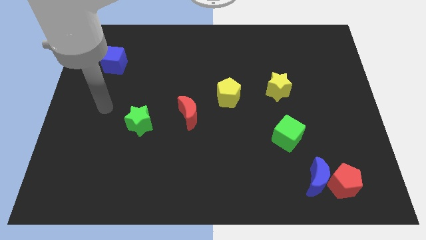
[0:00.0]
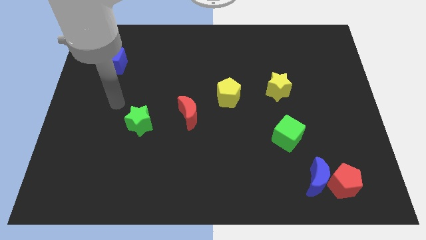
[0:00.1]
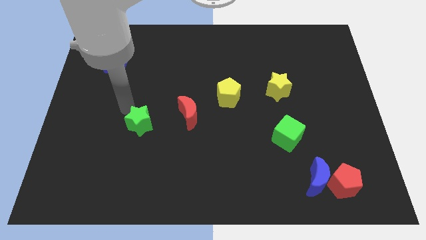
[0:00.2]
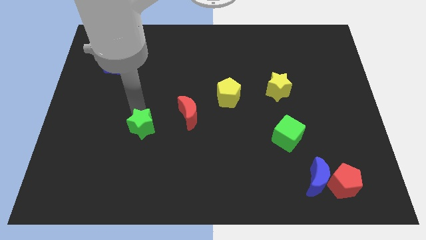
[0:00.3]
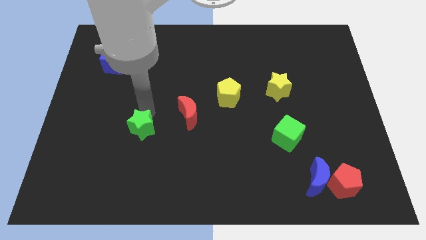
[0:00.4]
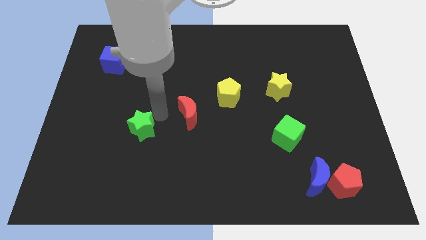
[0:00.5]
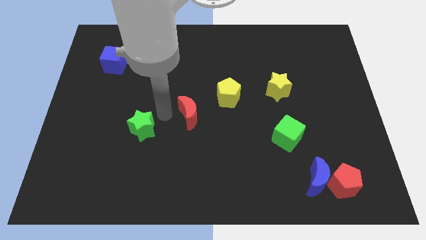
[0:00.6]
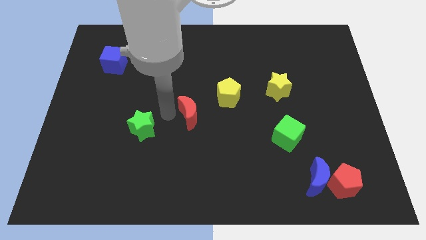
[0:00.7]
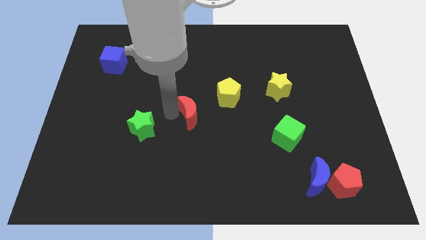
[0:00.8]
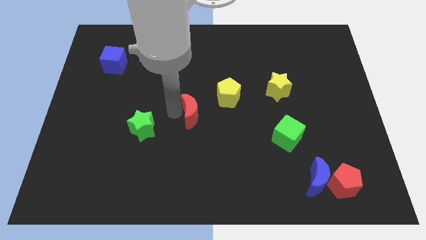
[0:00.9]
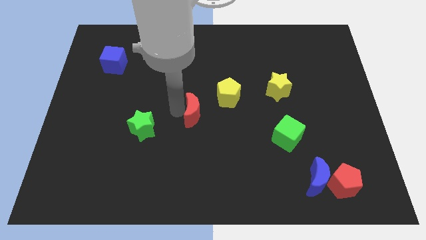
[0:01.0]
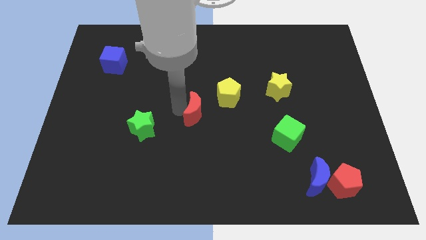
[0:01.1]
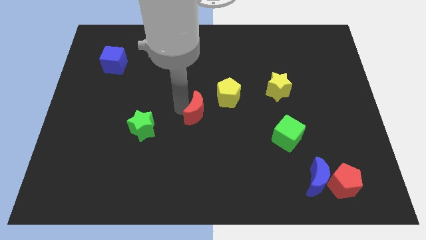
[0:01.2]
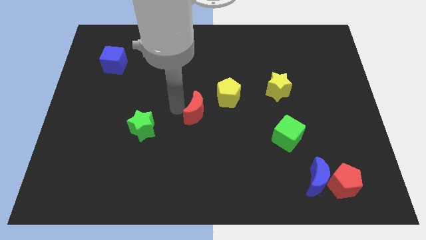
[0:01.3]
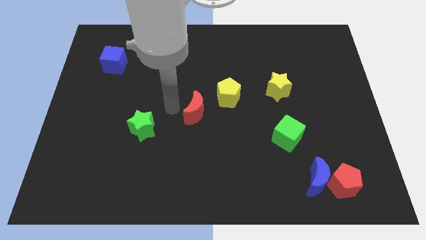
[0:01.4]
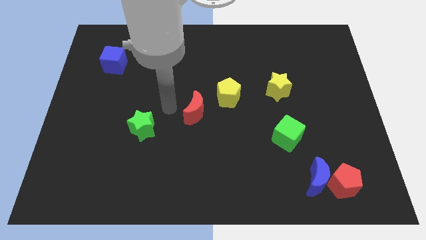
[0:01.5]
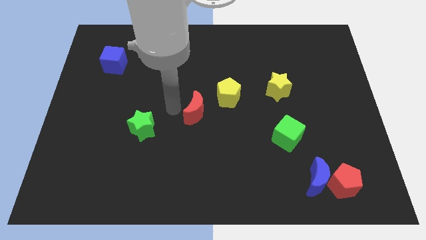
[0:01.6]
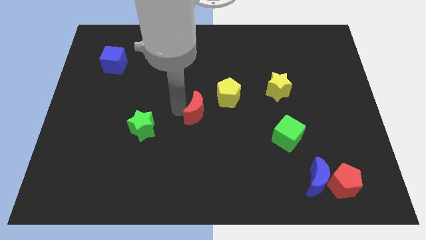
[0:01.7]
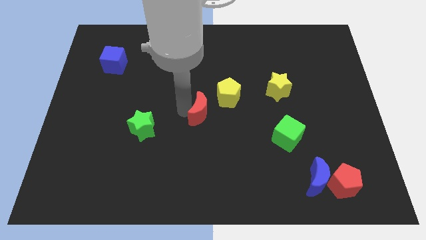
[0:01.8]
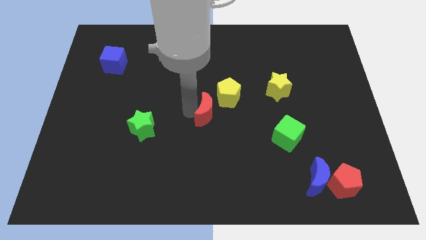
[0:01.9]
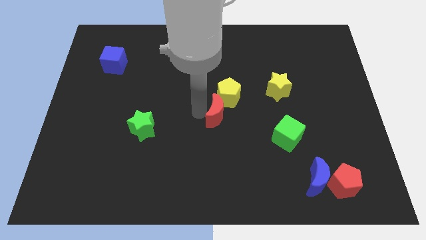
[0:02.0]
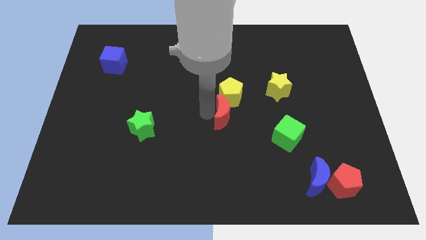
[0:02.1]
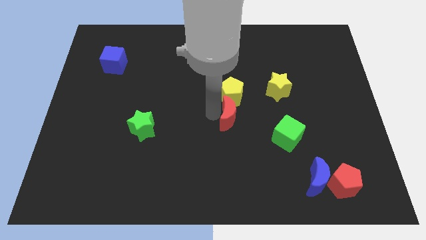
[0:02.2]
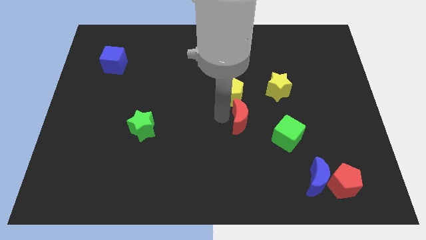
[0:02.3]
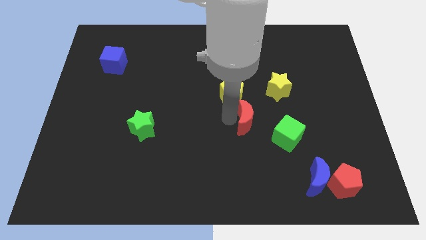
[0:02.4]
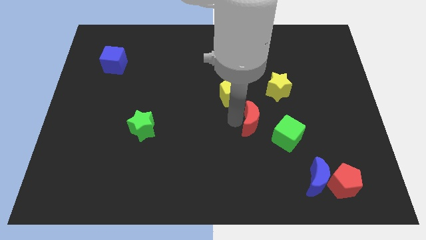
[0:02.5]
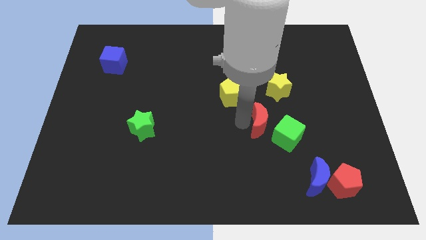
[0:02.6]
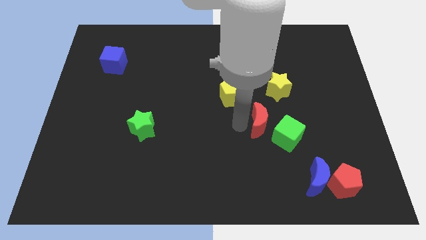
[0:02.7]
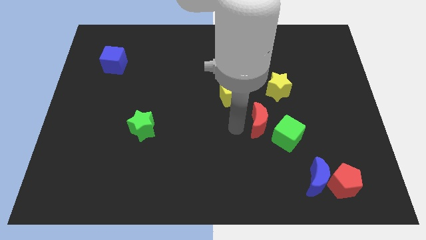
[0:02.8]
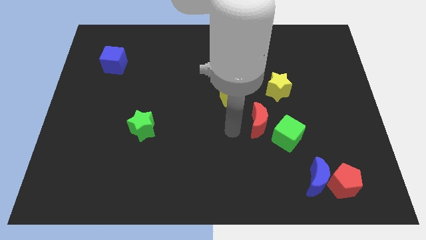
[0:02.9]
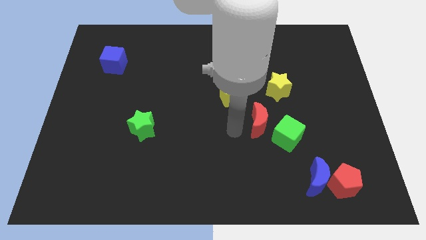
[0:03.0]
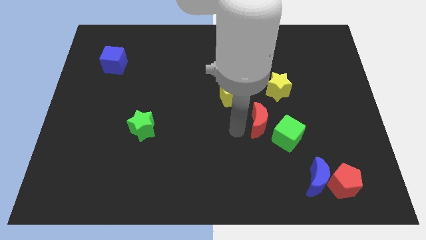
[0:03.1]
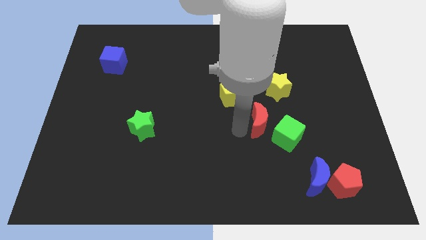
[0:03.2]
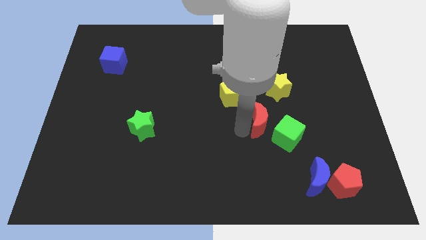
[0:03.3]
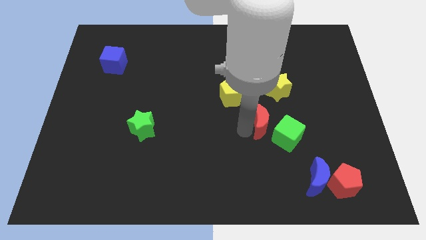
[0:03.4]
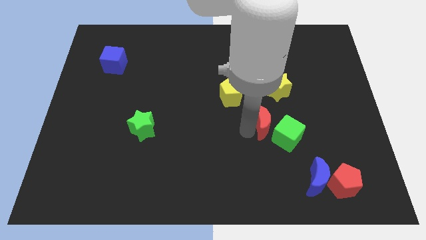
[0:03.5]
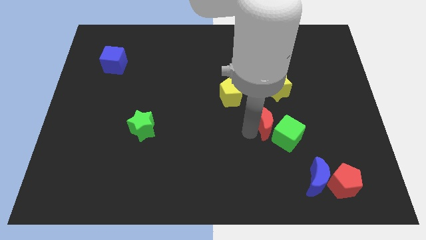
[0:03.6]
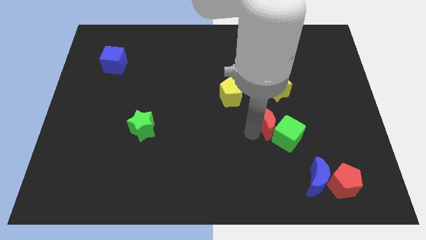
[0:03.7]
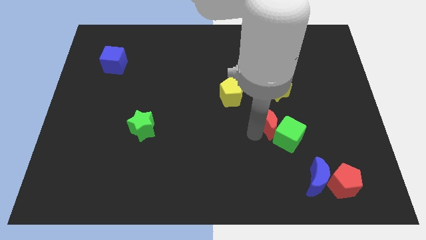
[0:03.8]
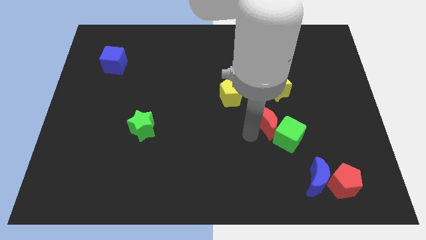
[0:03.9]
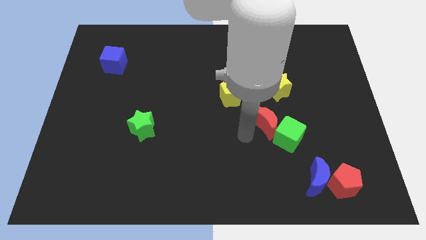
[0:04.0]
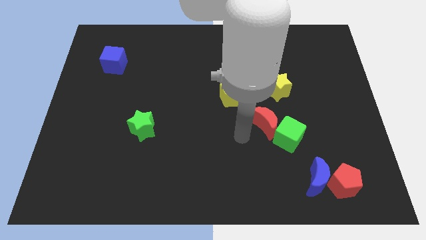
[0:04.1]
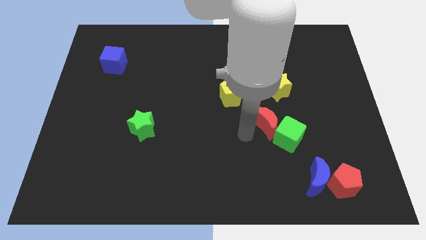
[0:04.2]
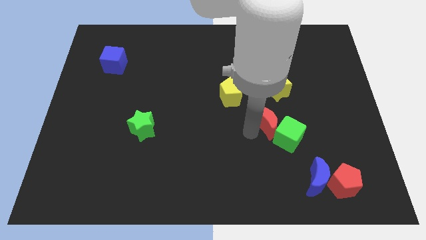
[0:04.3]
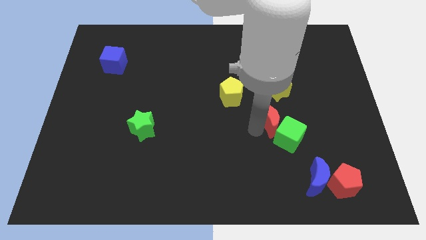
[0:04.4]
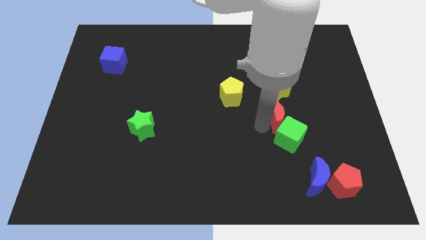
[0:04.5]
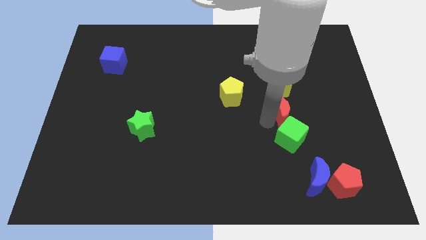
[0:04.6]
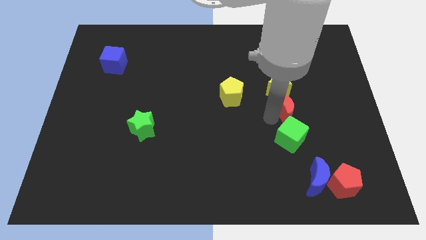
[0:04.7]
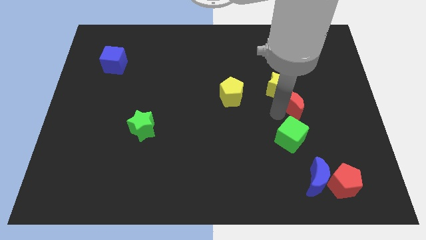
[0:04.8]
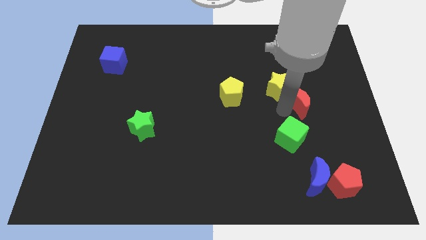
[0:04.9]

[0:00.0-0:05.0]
put the red moon to the right side of the yellow star

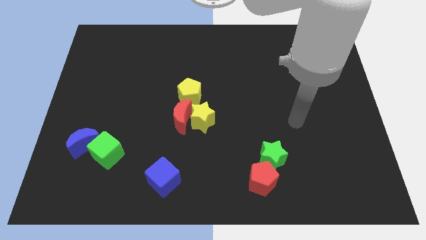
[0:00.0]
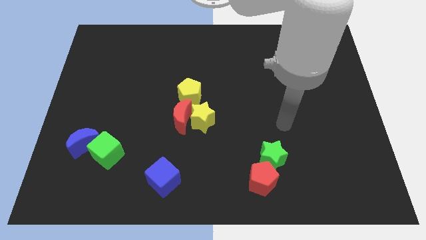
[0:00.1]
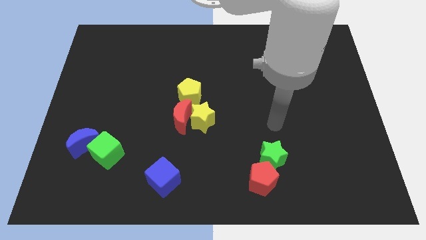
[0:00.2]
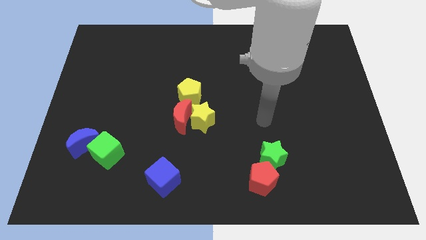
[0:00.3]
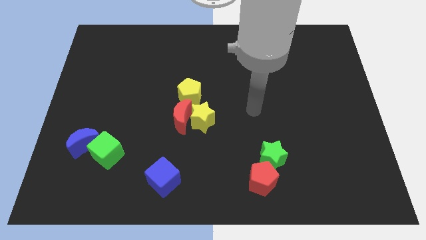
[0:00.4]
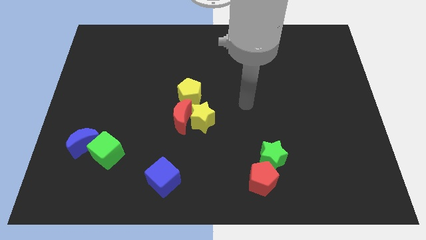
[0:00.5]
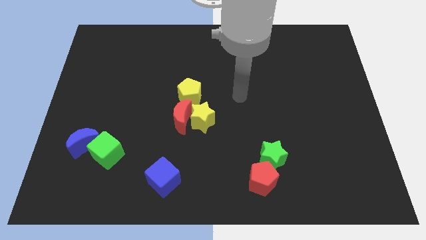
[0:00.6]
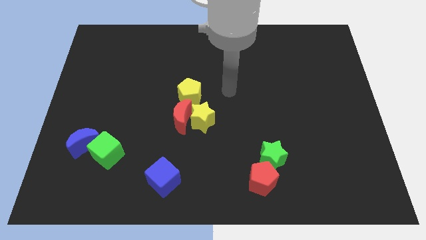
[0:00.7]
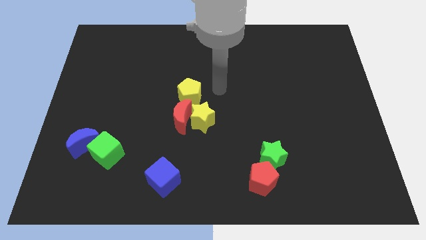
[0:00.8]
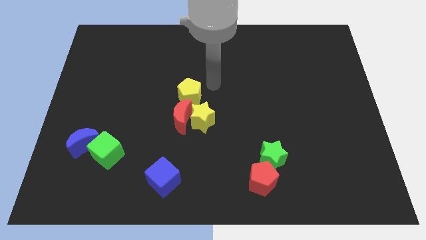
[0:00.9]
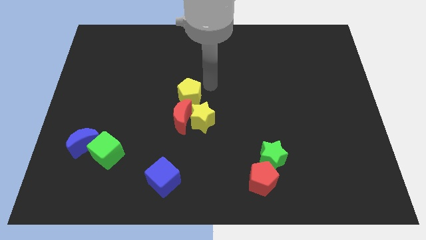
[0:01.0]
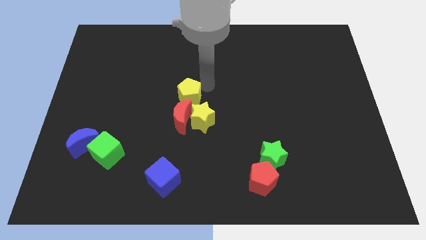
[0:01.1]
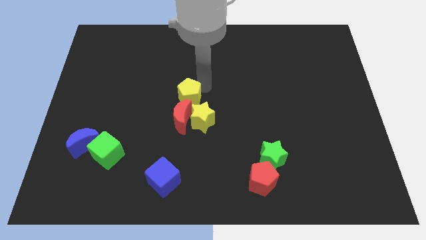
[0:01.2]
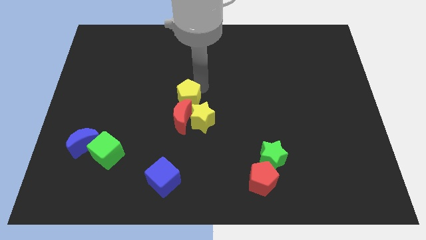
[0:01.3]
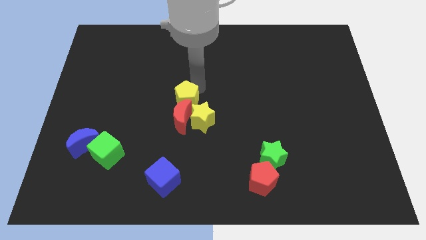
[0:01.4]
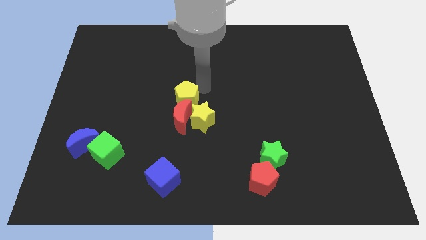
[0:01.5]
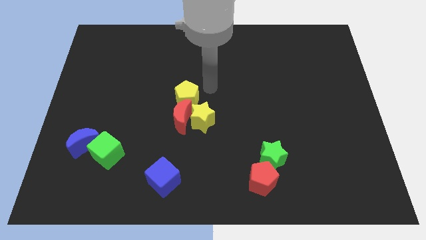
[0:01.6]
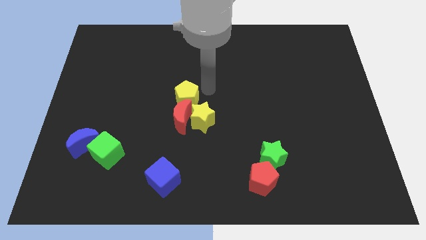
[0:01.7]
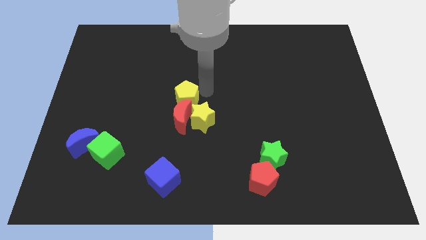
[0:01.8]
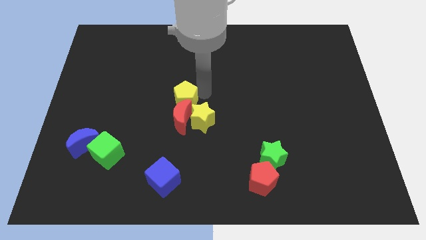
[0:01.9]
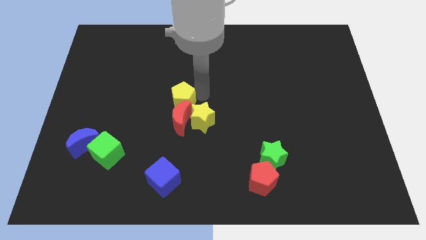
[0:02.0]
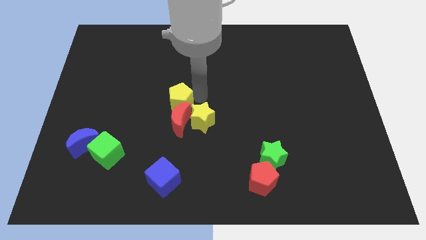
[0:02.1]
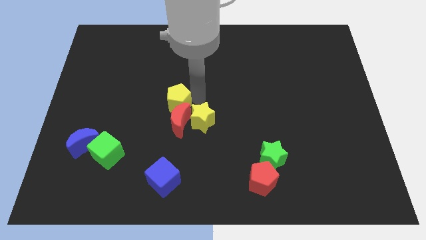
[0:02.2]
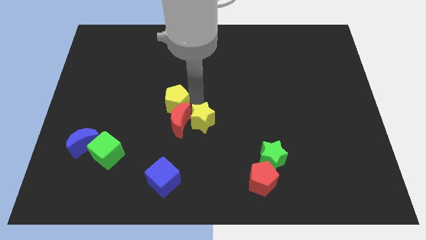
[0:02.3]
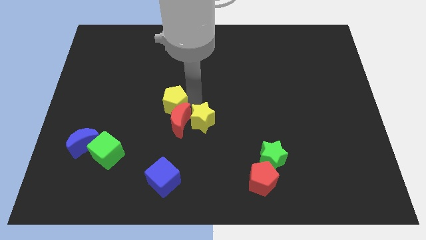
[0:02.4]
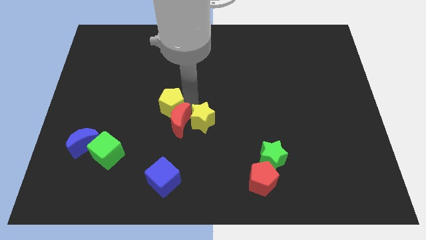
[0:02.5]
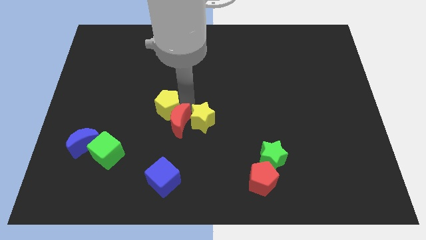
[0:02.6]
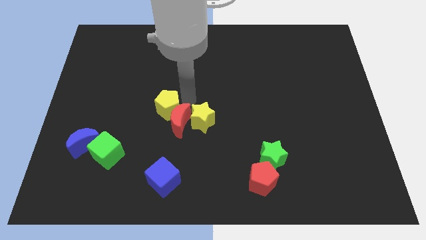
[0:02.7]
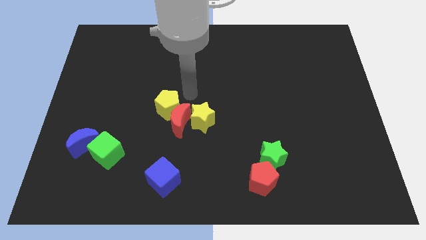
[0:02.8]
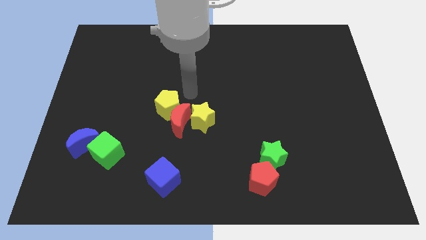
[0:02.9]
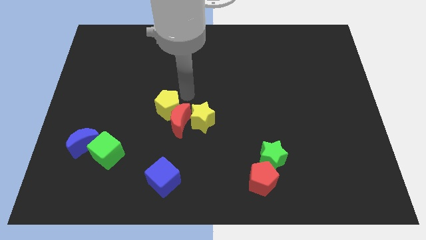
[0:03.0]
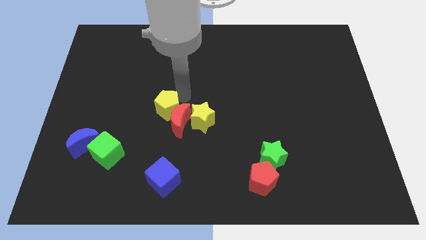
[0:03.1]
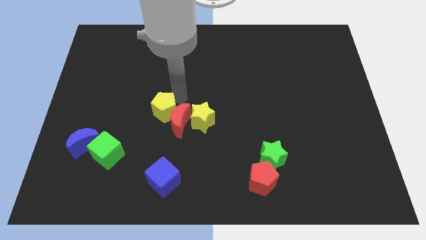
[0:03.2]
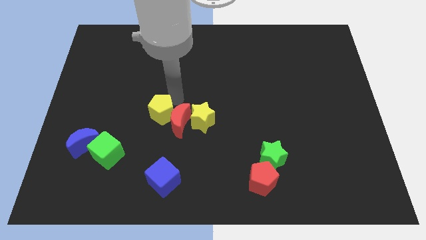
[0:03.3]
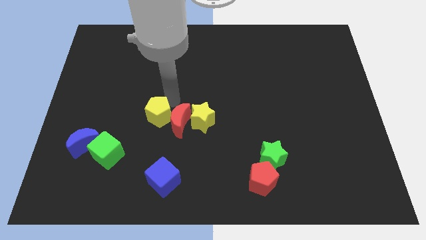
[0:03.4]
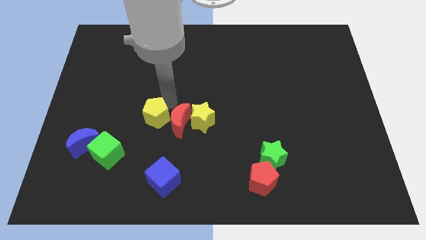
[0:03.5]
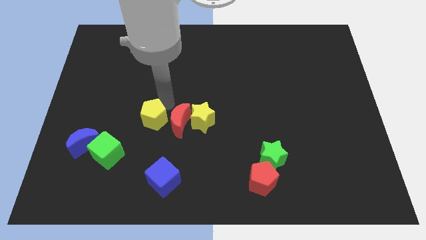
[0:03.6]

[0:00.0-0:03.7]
slide the yellow pentagon to the top right of the green cube
